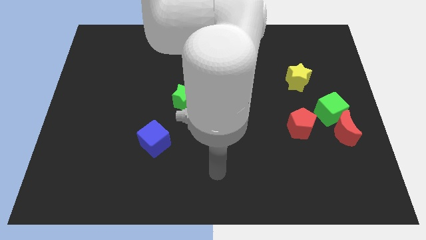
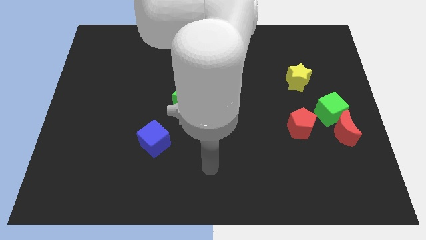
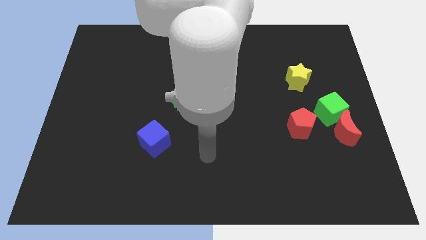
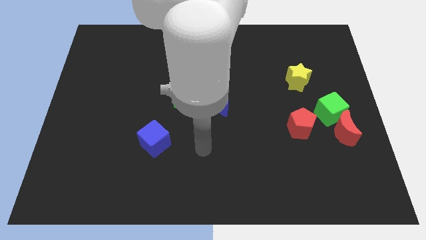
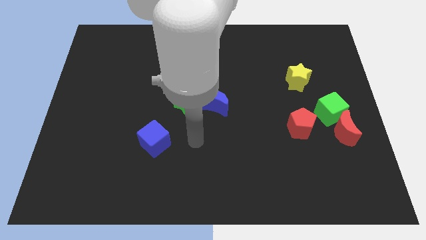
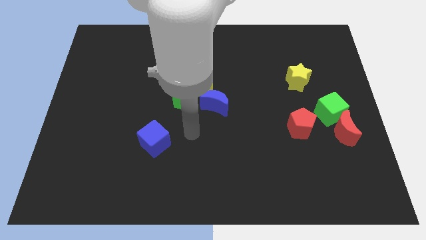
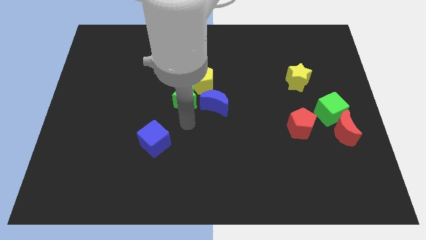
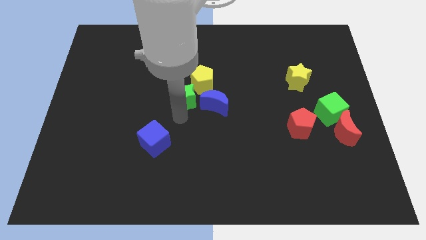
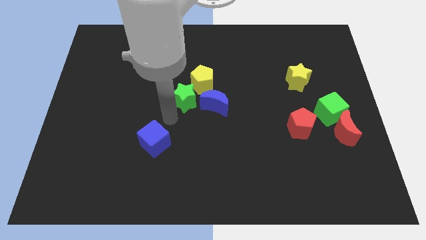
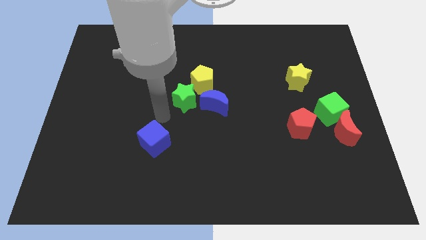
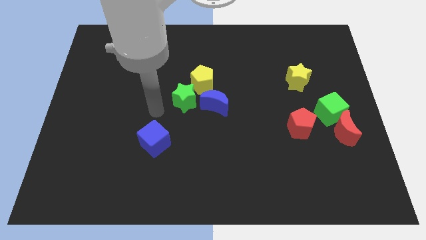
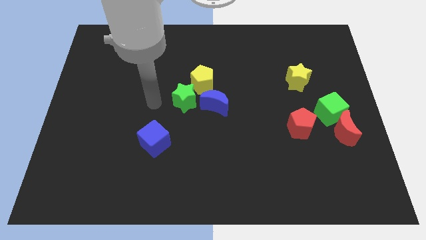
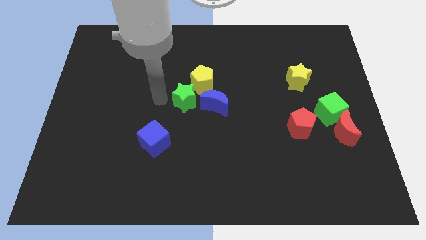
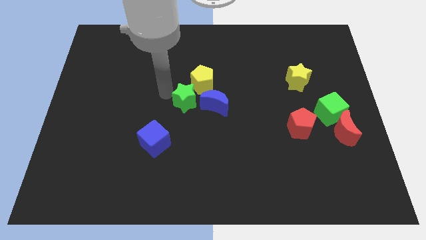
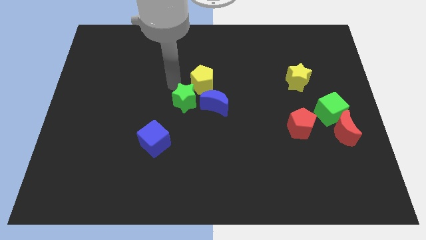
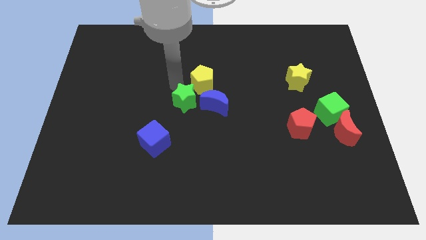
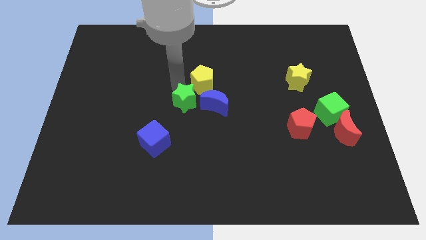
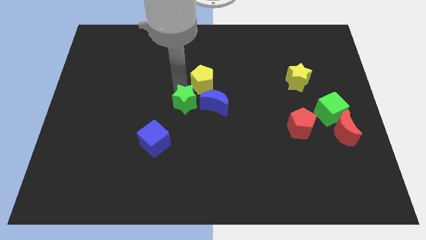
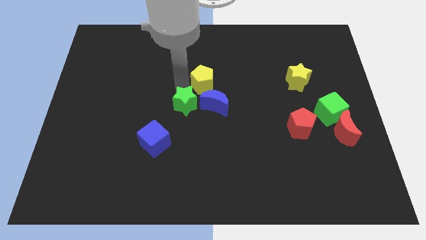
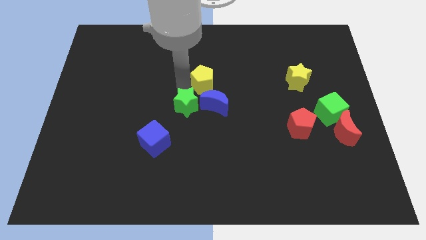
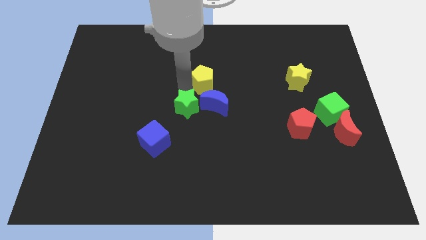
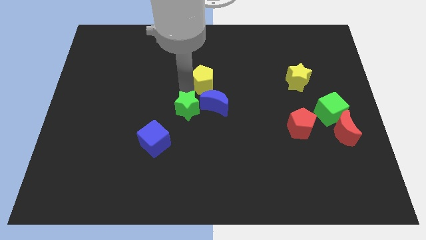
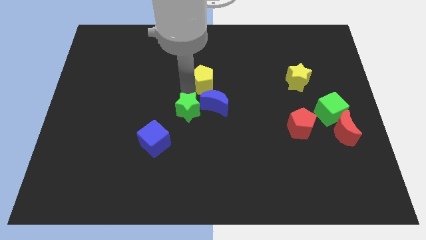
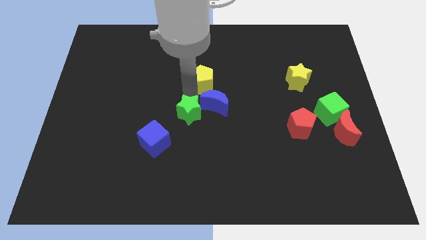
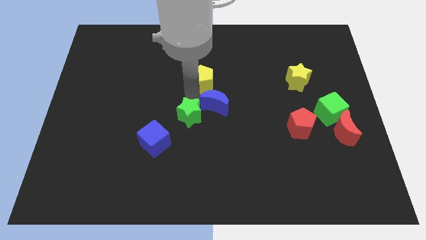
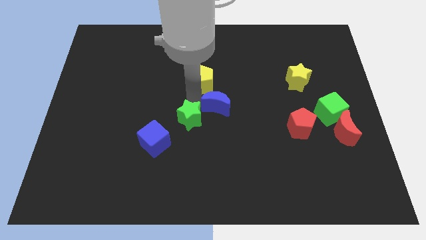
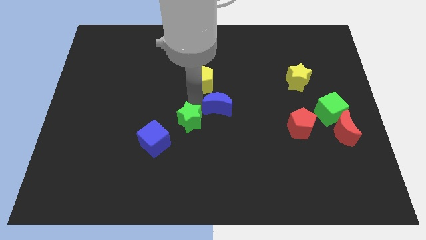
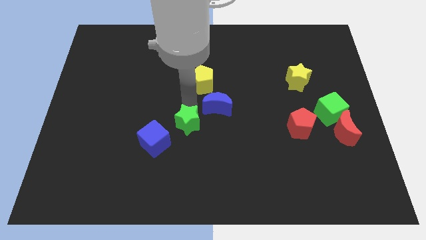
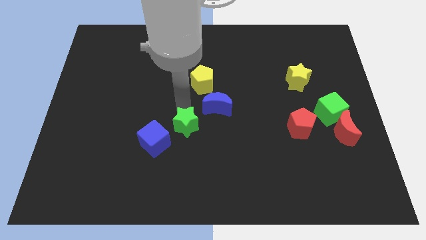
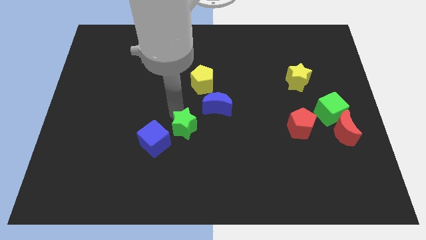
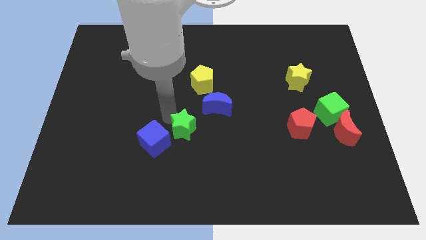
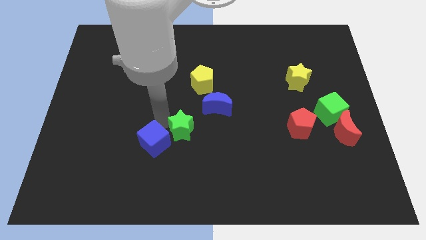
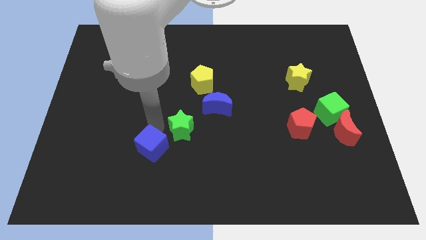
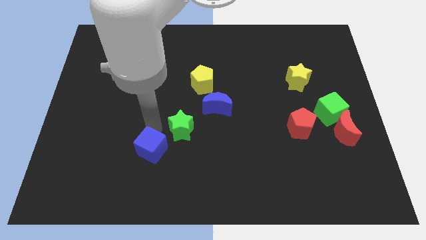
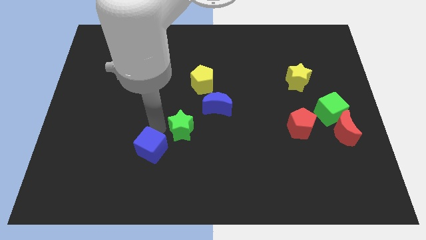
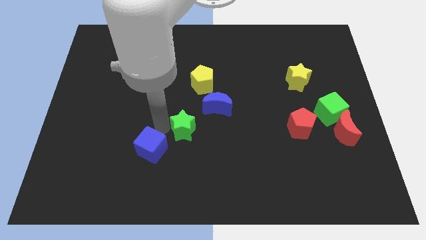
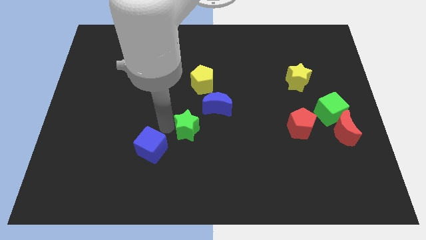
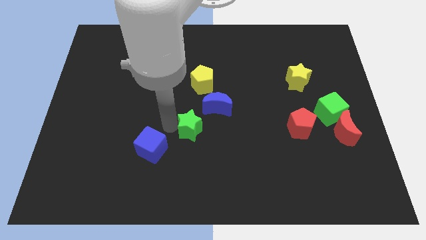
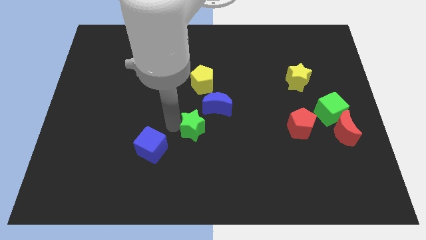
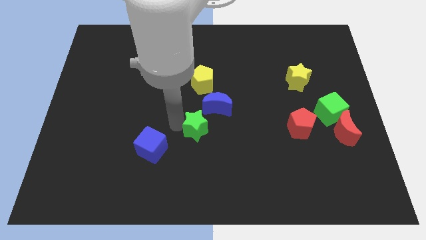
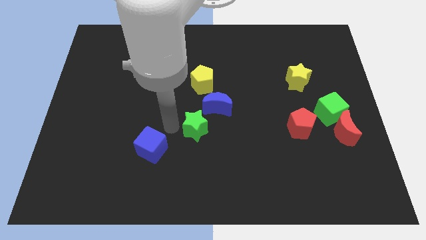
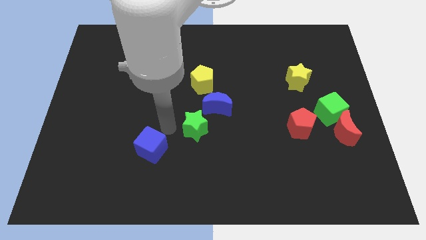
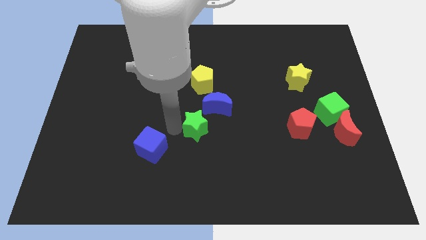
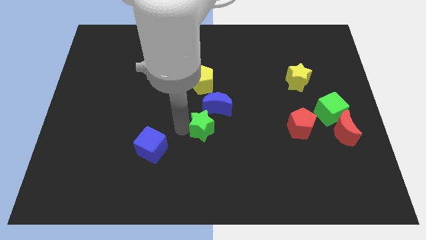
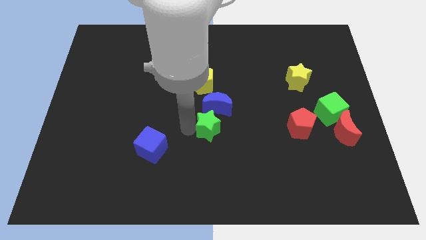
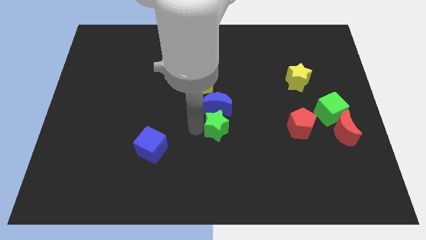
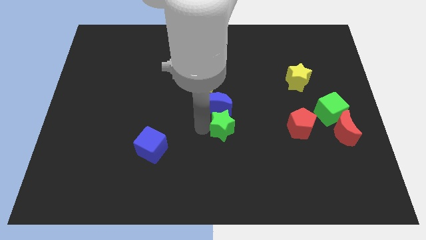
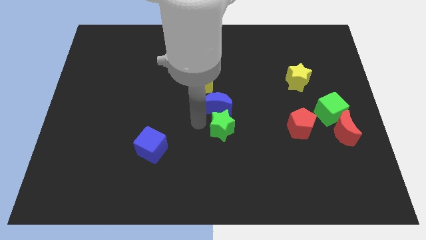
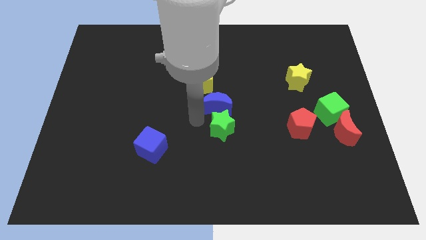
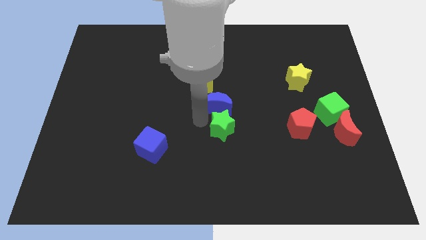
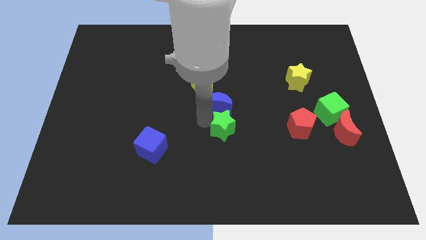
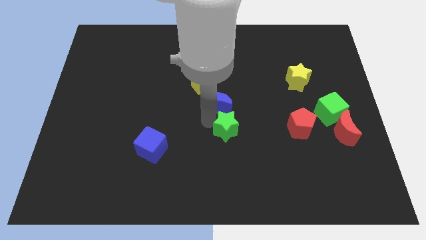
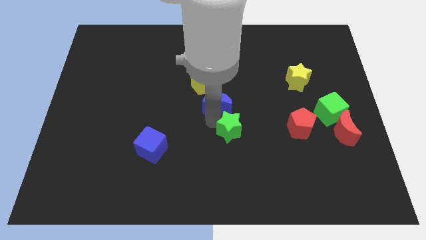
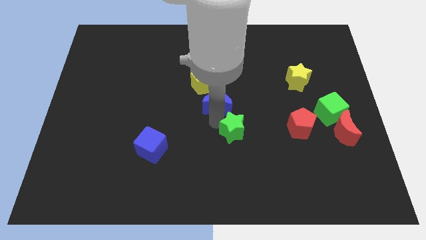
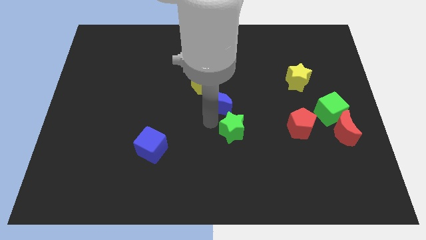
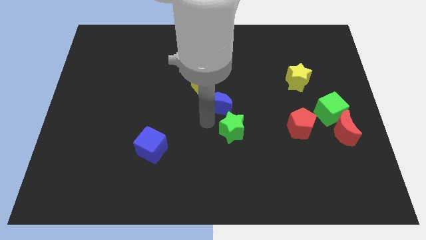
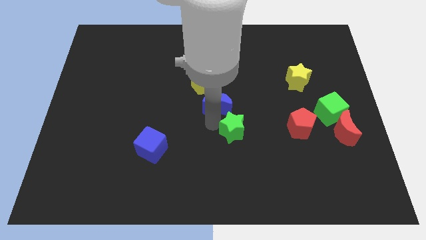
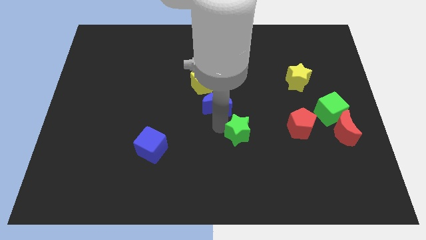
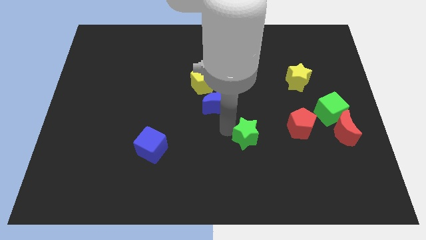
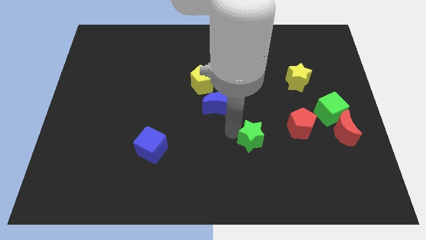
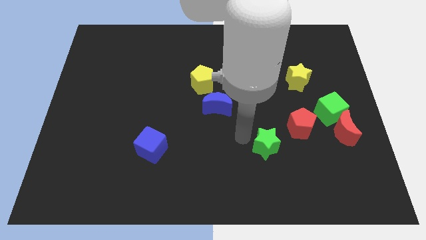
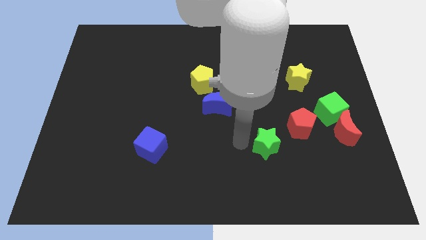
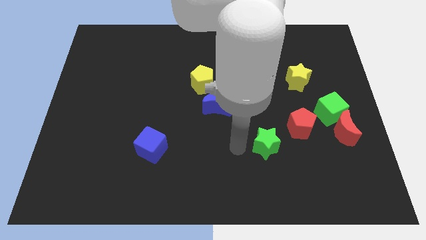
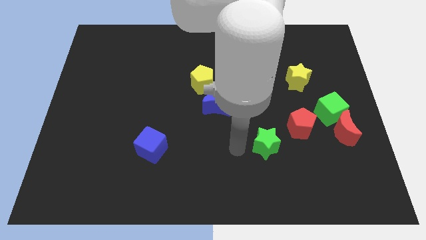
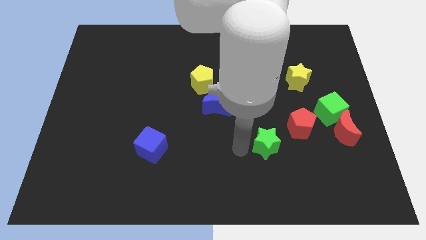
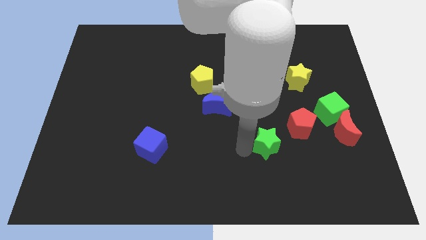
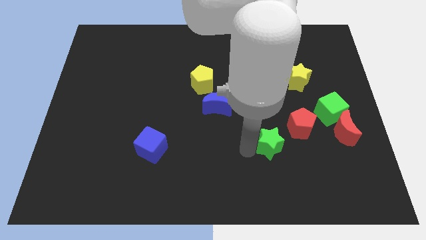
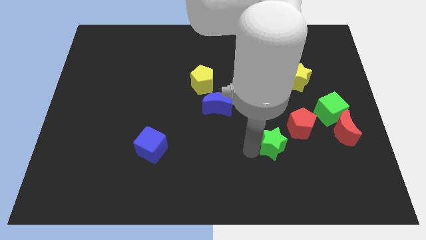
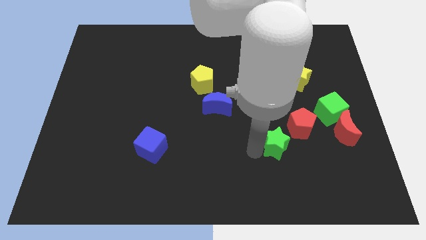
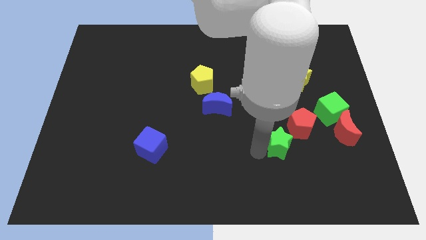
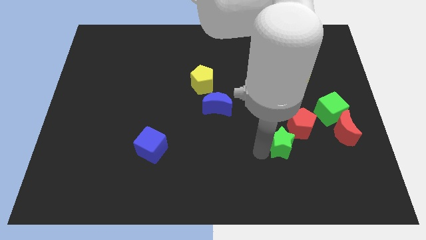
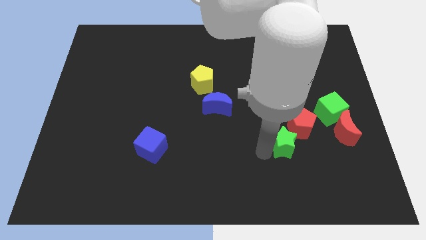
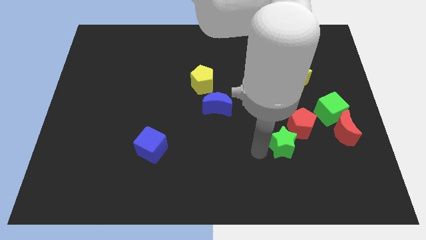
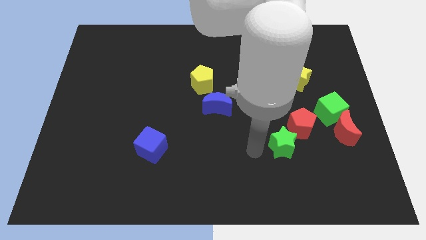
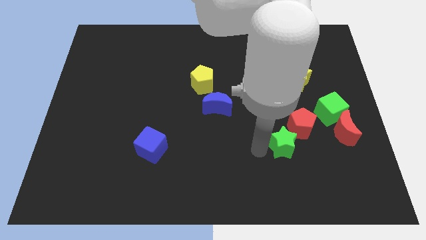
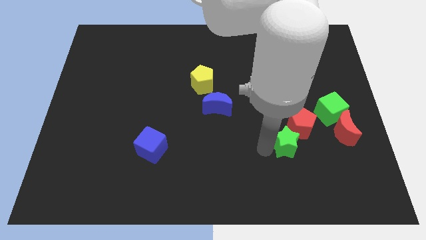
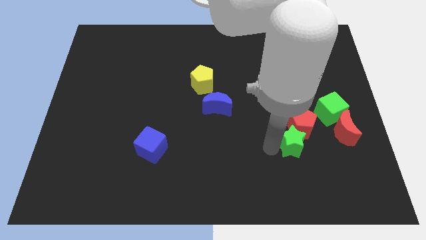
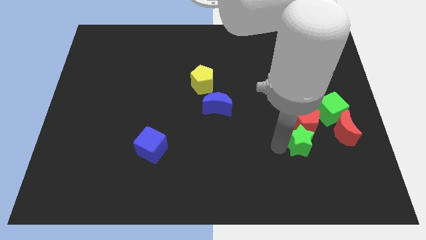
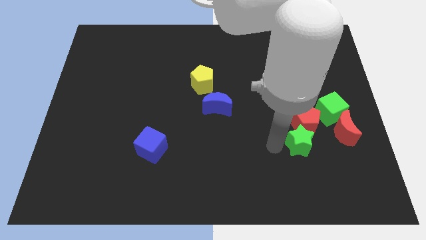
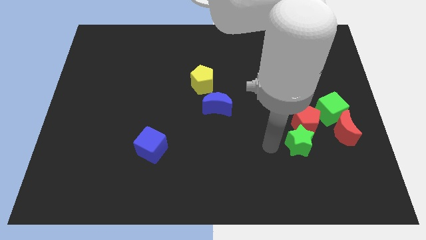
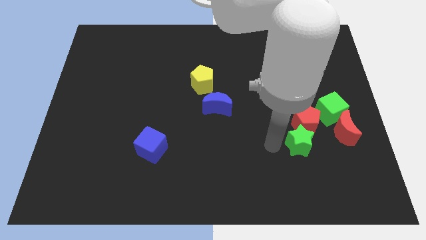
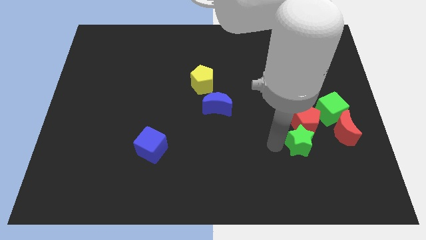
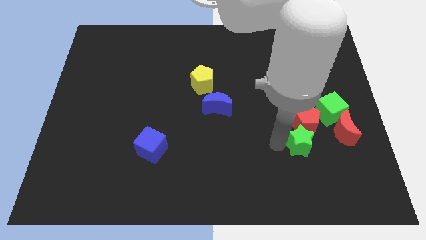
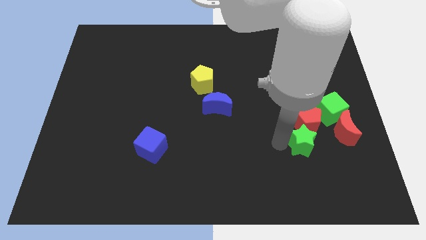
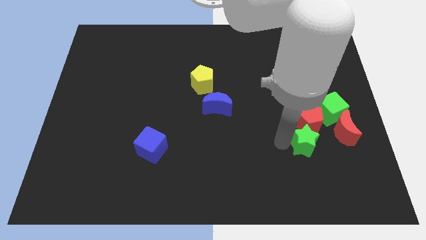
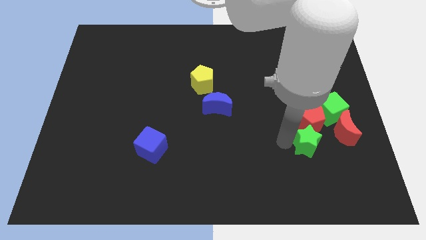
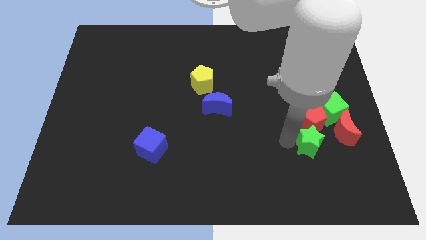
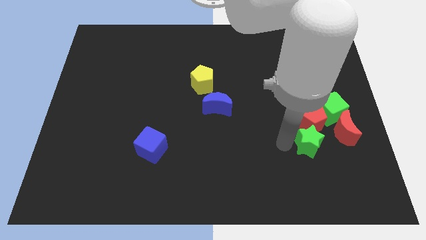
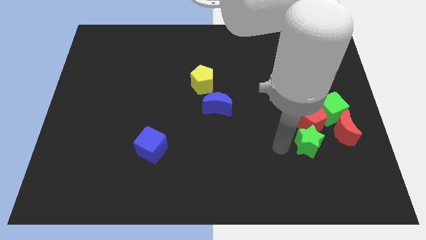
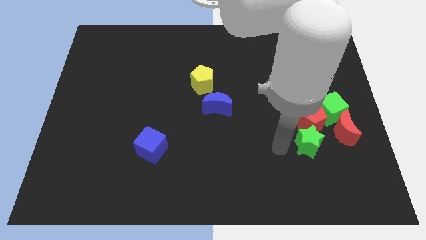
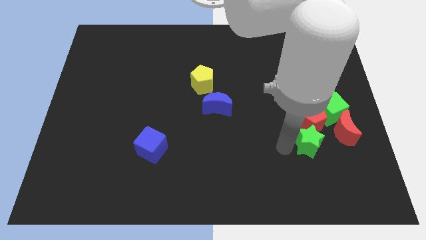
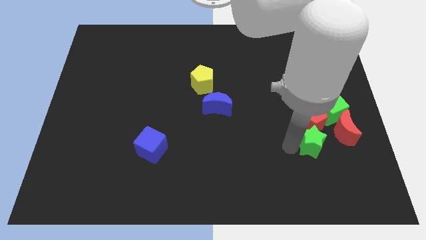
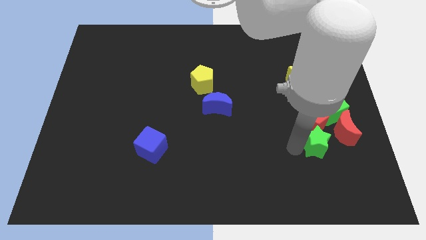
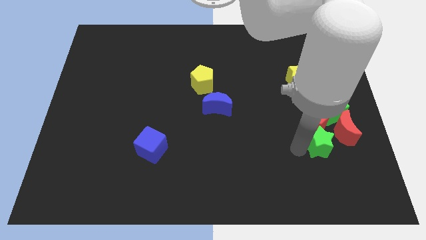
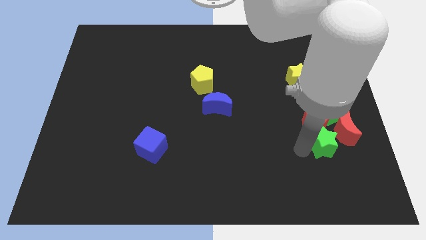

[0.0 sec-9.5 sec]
put the green star close to the red moon
